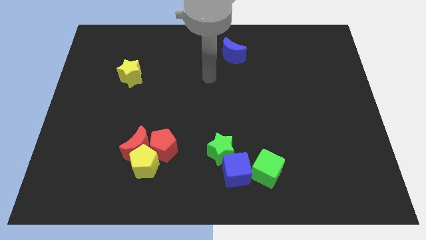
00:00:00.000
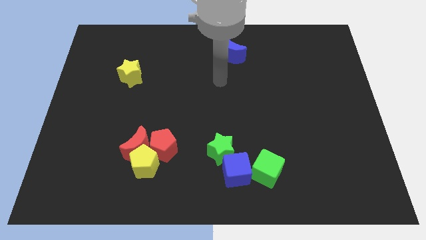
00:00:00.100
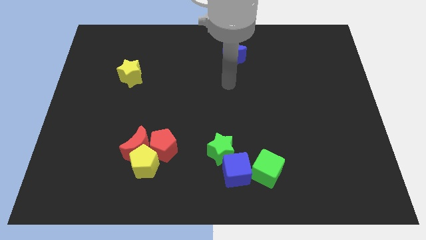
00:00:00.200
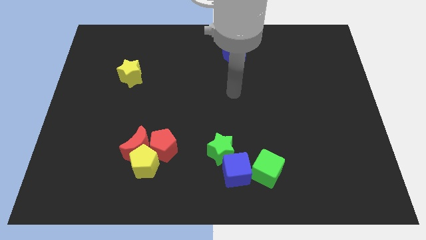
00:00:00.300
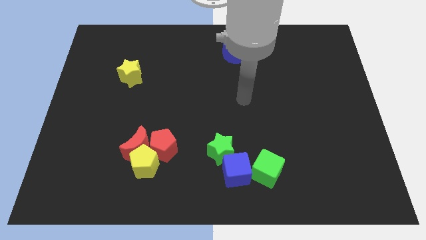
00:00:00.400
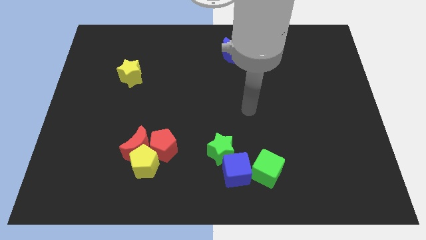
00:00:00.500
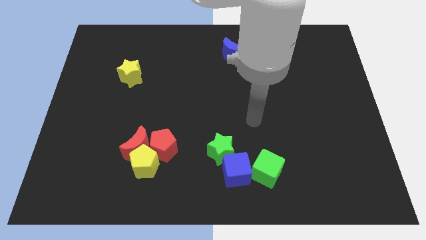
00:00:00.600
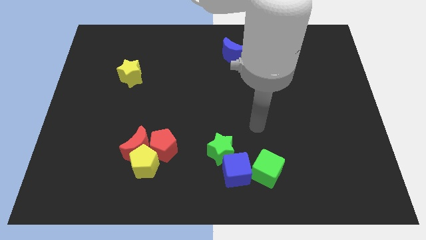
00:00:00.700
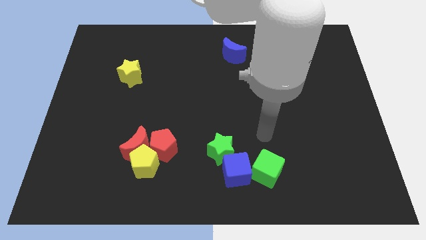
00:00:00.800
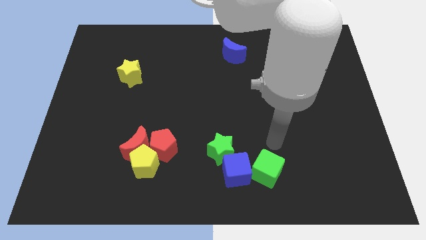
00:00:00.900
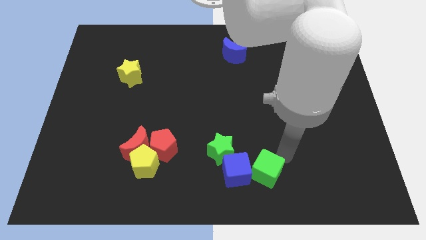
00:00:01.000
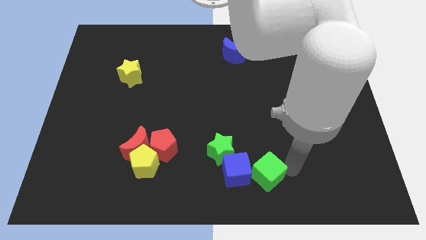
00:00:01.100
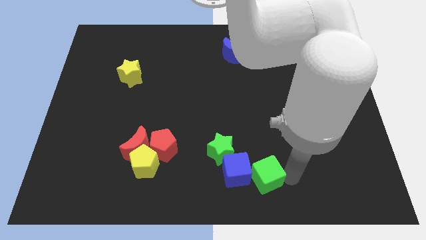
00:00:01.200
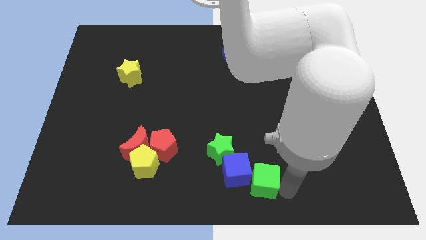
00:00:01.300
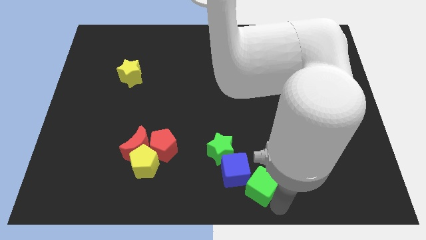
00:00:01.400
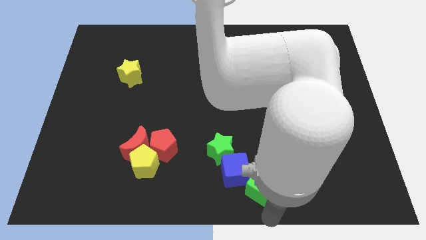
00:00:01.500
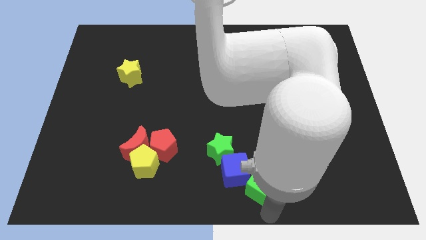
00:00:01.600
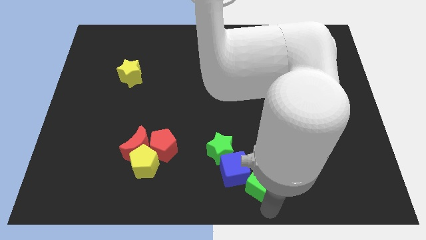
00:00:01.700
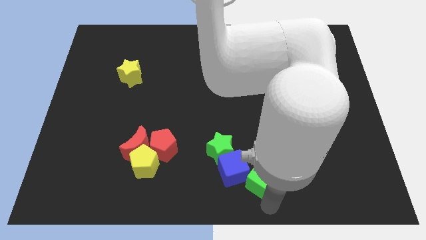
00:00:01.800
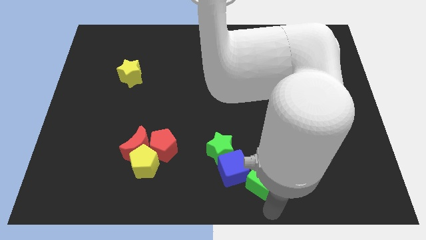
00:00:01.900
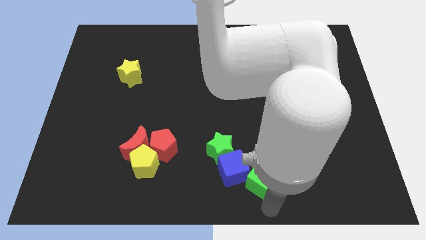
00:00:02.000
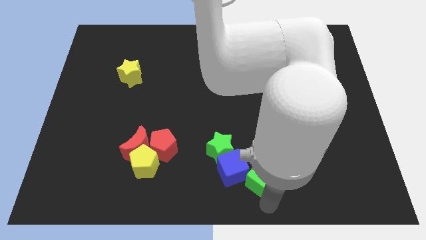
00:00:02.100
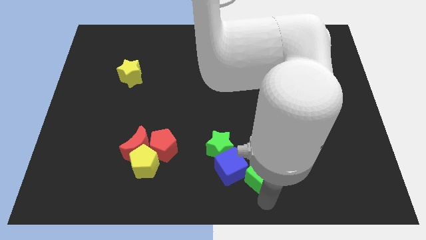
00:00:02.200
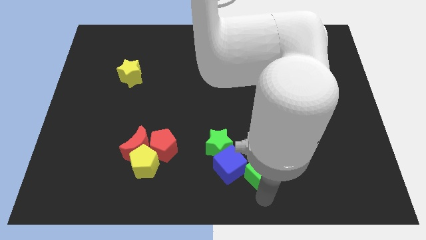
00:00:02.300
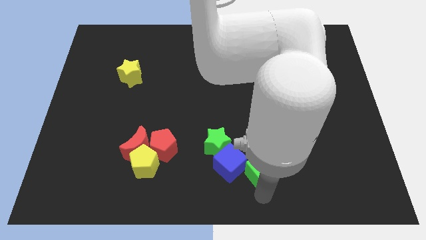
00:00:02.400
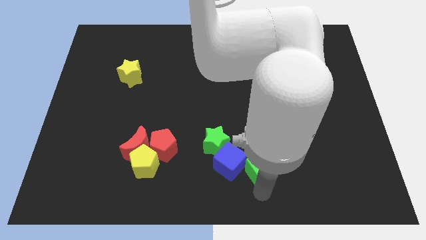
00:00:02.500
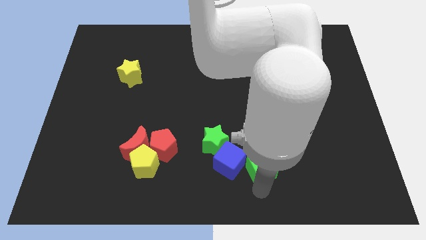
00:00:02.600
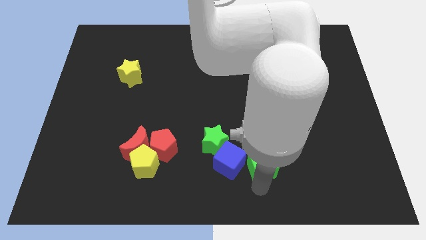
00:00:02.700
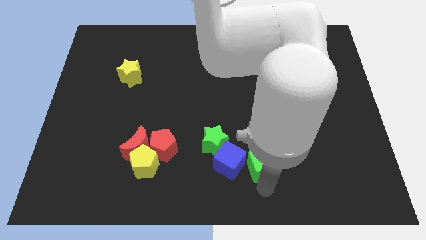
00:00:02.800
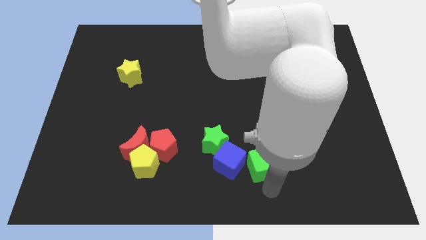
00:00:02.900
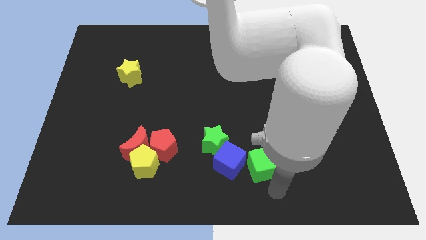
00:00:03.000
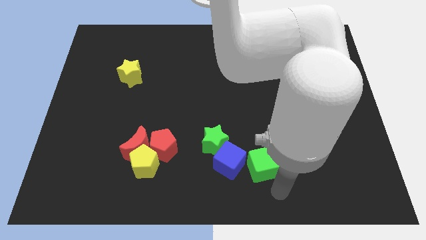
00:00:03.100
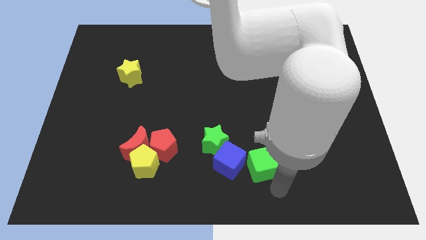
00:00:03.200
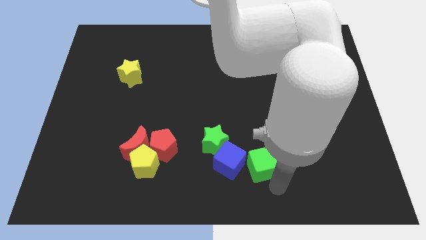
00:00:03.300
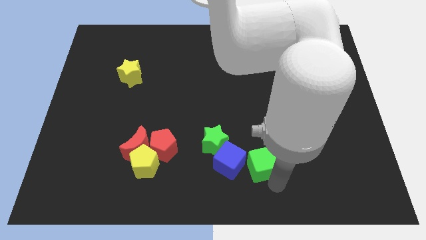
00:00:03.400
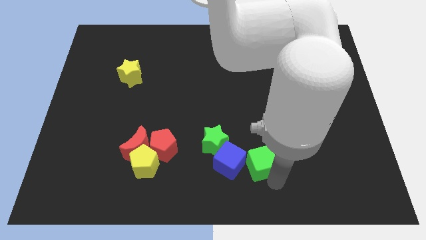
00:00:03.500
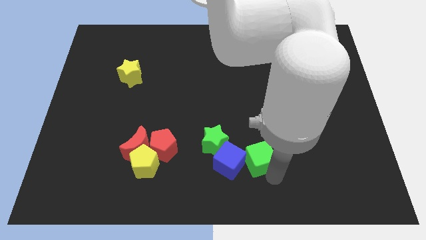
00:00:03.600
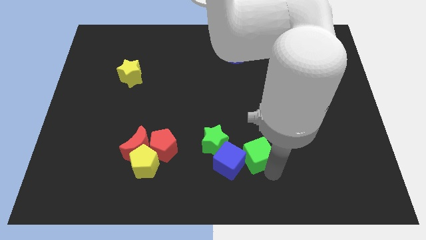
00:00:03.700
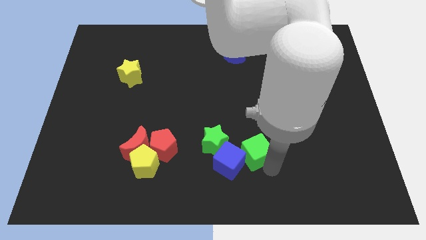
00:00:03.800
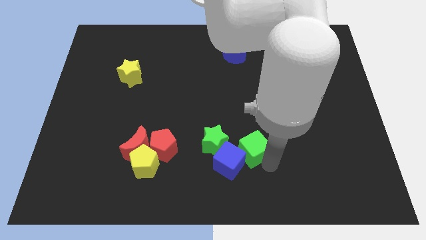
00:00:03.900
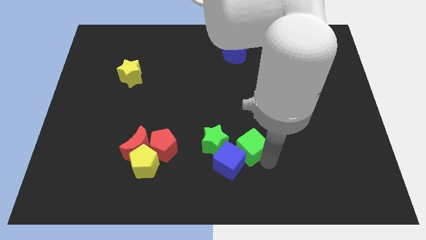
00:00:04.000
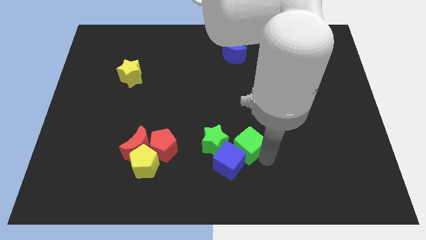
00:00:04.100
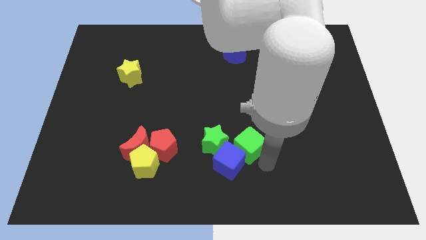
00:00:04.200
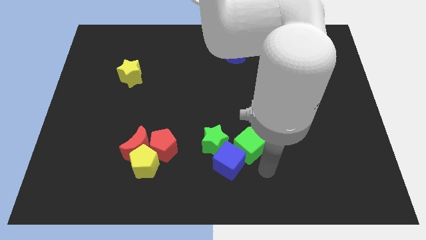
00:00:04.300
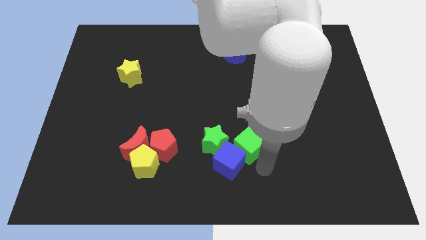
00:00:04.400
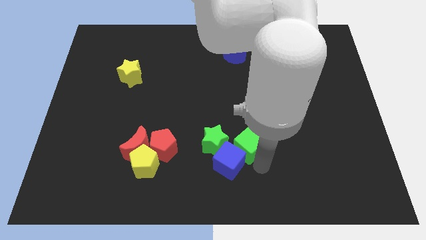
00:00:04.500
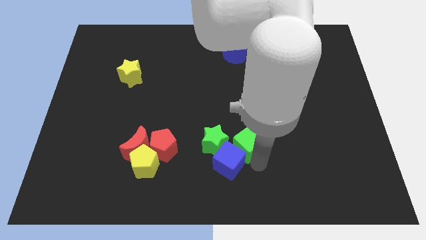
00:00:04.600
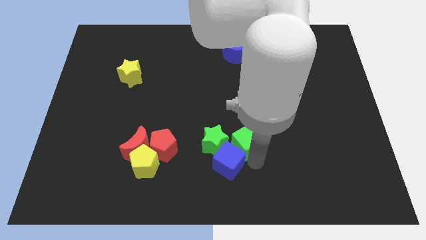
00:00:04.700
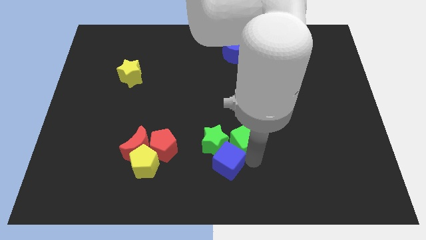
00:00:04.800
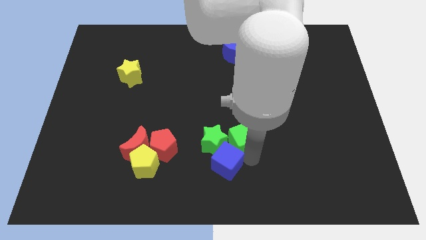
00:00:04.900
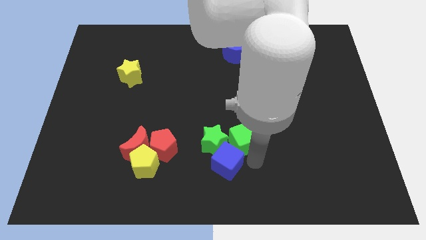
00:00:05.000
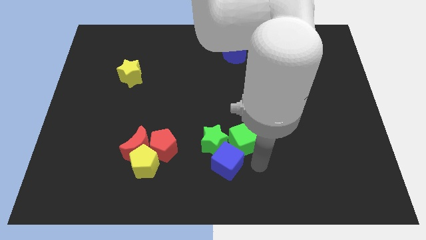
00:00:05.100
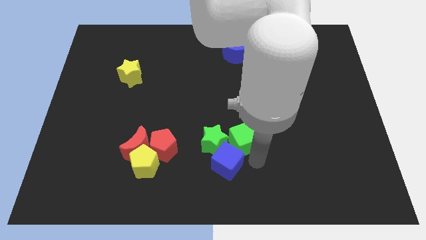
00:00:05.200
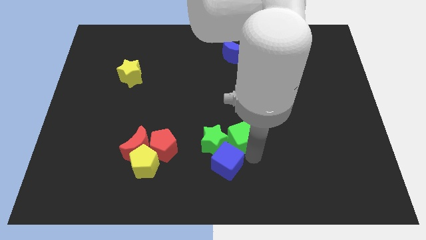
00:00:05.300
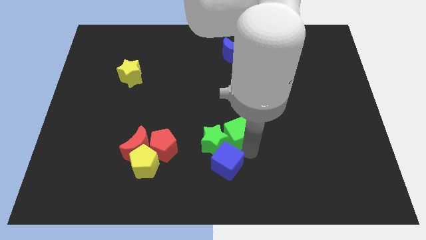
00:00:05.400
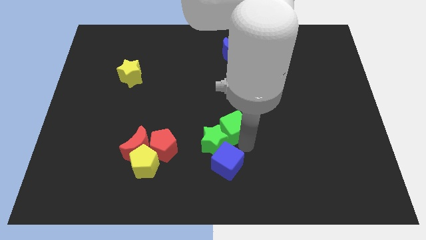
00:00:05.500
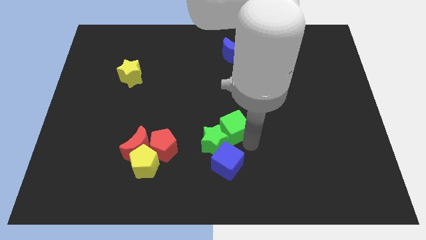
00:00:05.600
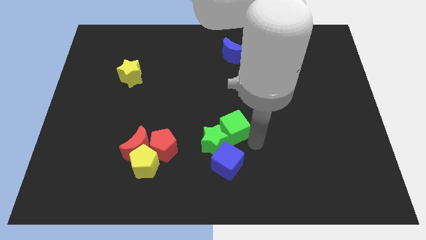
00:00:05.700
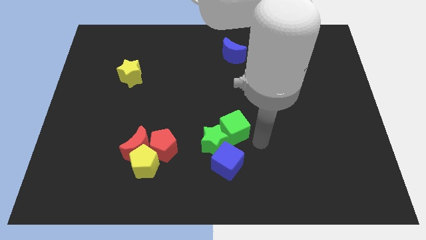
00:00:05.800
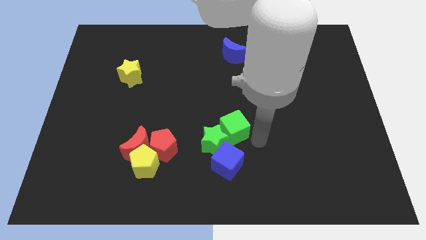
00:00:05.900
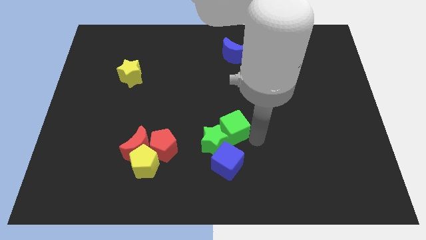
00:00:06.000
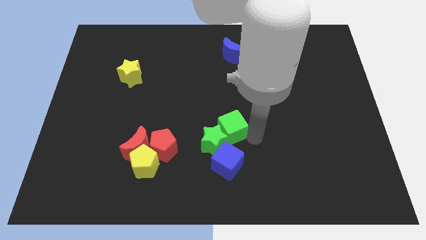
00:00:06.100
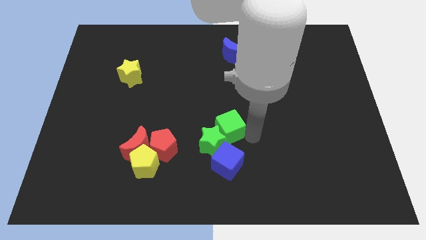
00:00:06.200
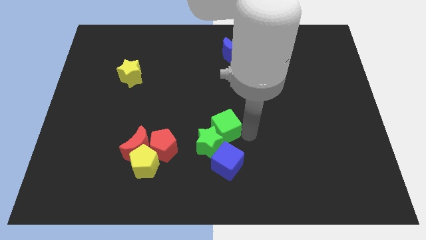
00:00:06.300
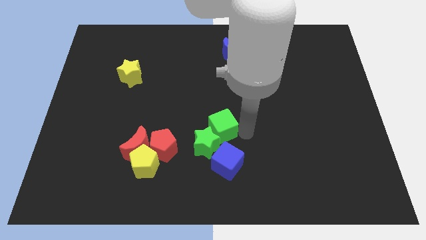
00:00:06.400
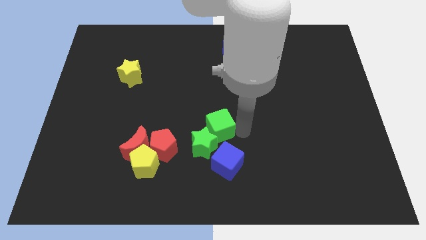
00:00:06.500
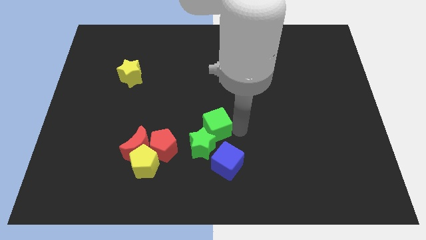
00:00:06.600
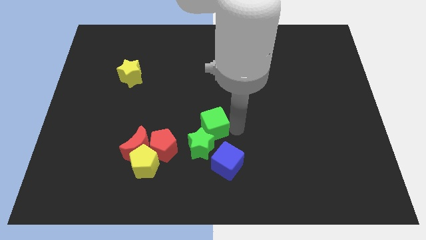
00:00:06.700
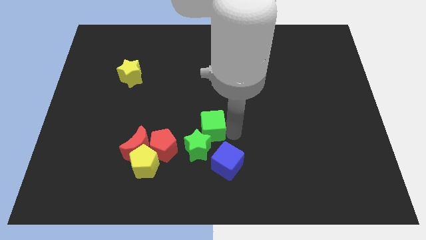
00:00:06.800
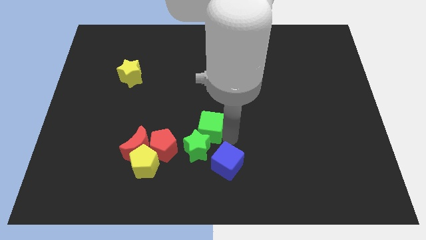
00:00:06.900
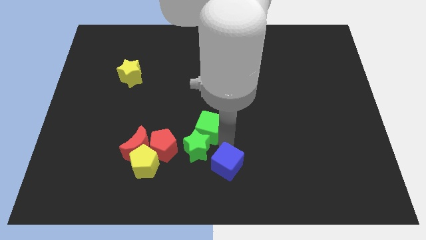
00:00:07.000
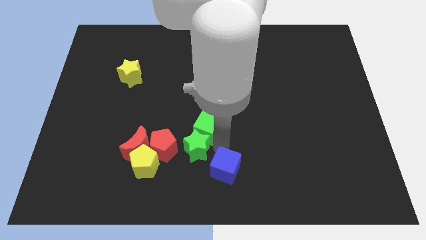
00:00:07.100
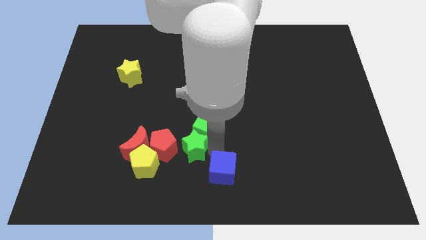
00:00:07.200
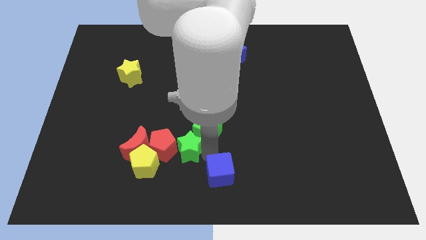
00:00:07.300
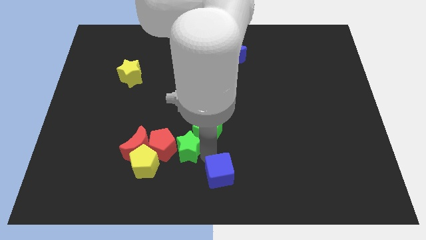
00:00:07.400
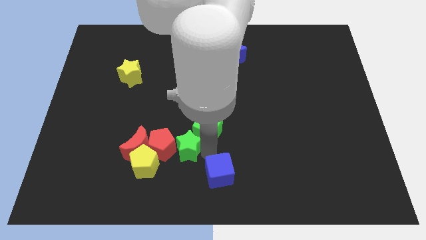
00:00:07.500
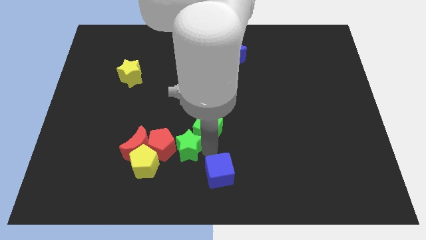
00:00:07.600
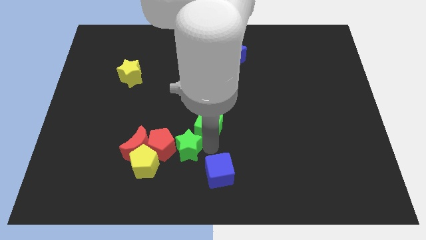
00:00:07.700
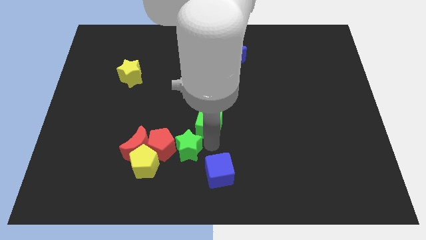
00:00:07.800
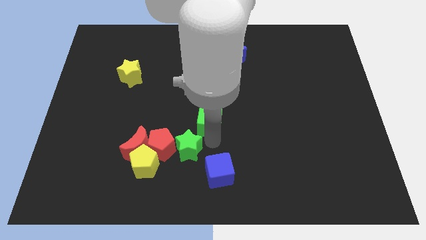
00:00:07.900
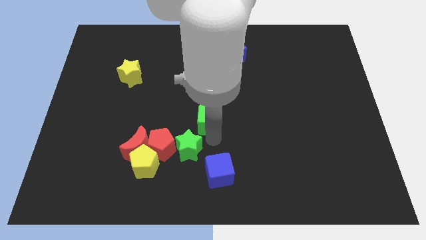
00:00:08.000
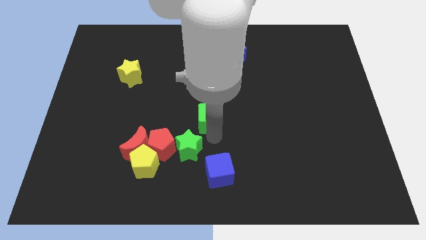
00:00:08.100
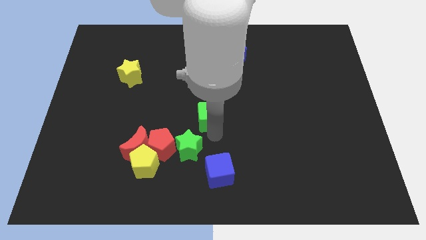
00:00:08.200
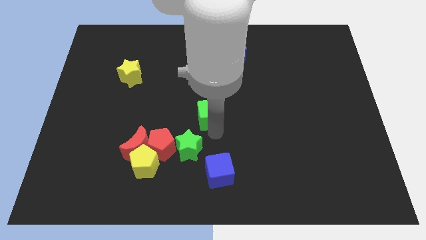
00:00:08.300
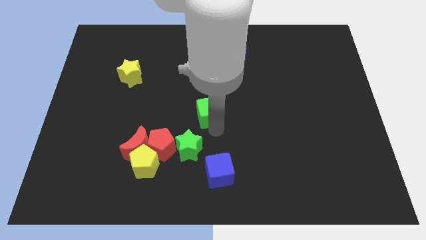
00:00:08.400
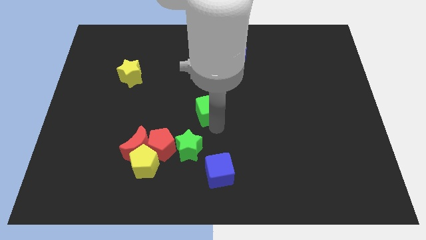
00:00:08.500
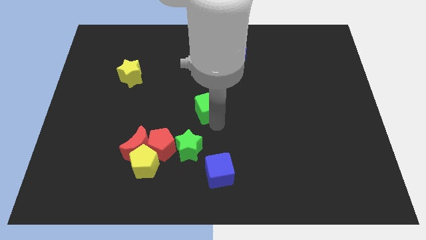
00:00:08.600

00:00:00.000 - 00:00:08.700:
slide the green cube diagonally up and left
